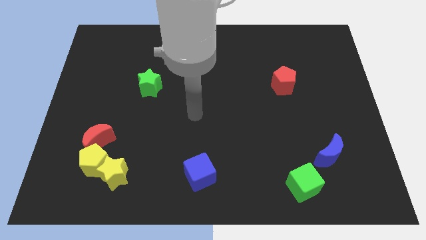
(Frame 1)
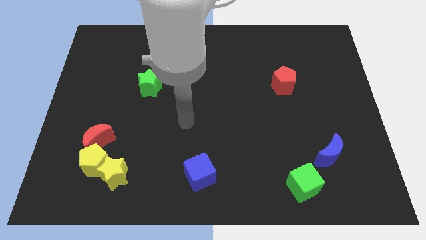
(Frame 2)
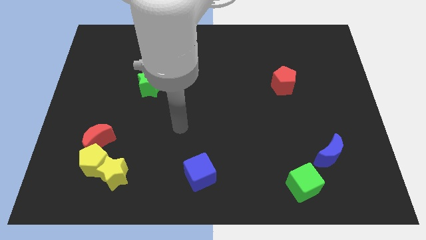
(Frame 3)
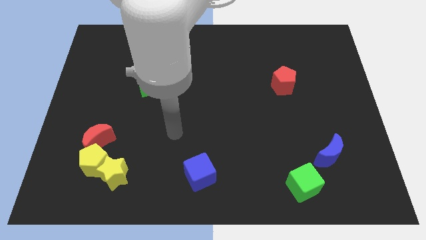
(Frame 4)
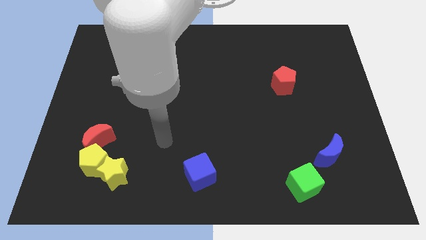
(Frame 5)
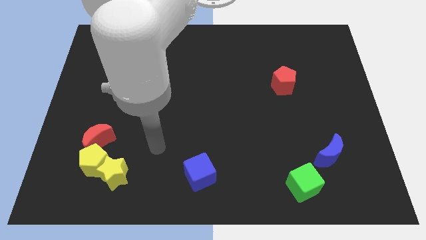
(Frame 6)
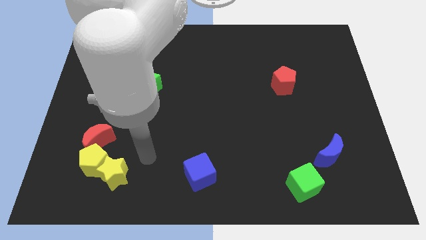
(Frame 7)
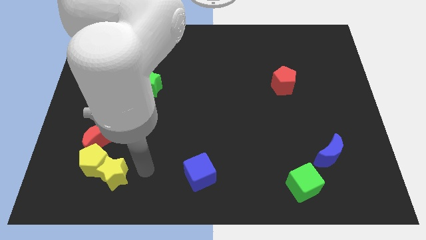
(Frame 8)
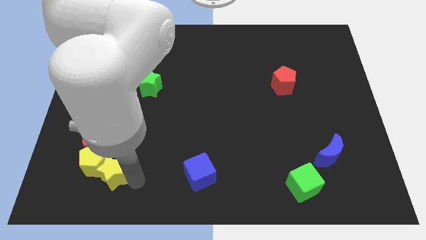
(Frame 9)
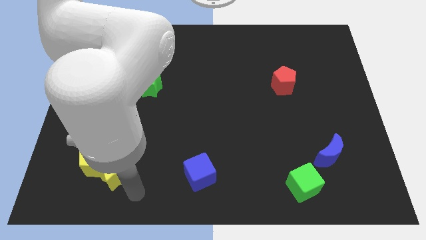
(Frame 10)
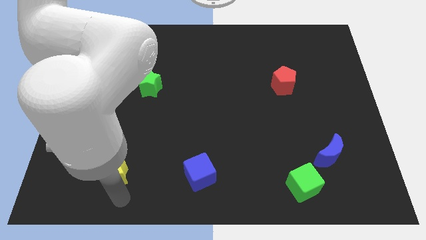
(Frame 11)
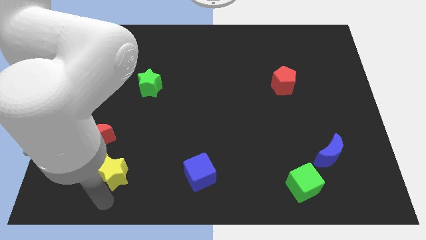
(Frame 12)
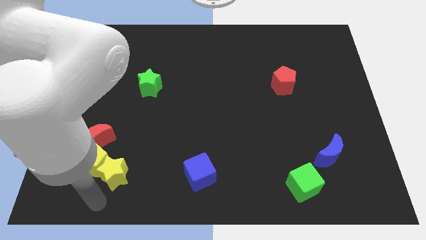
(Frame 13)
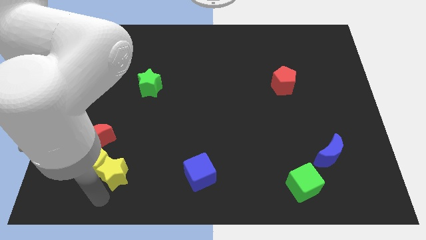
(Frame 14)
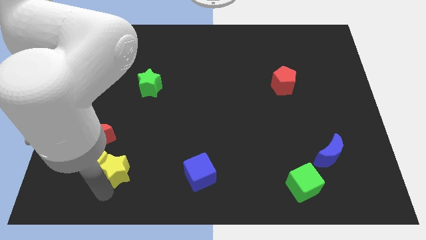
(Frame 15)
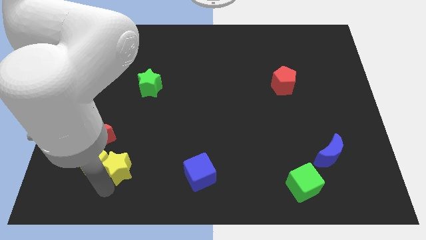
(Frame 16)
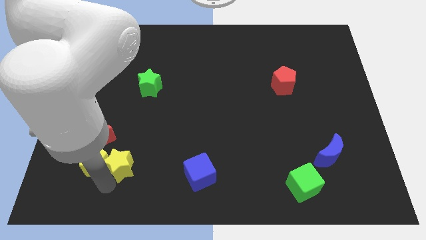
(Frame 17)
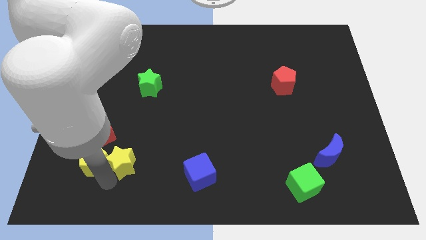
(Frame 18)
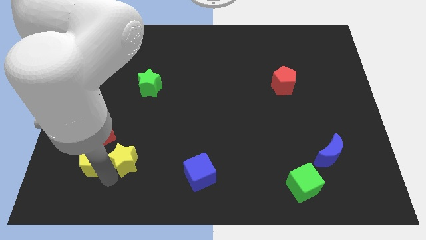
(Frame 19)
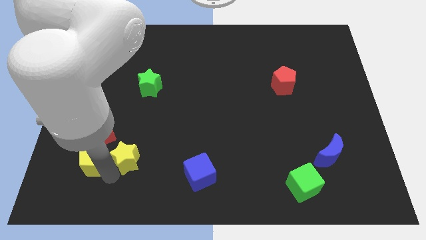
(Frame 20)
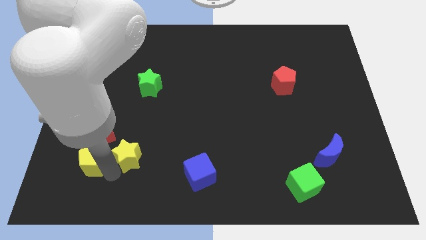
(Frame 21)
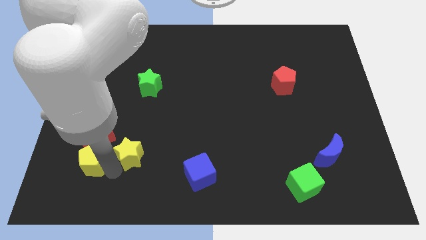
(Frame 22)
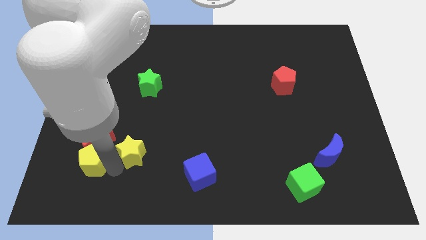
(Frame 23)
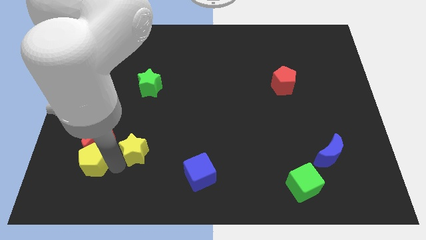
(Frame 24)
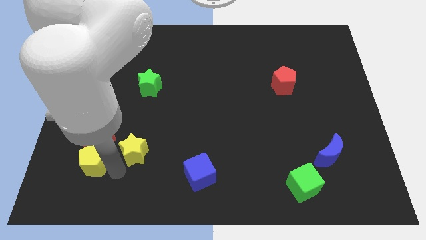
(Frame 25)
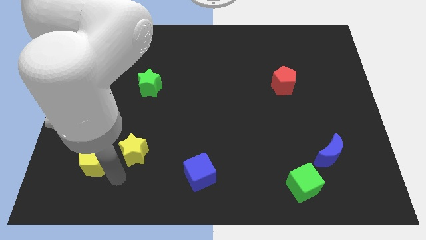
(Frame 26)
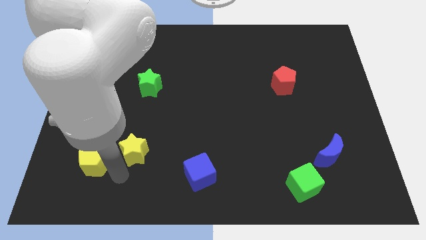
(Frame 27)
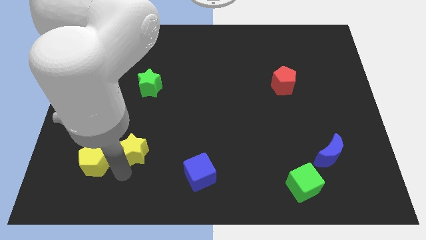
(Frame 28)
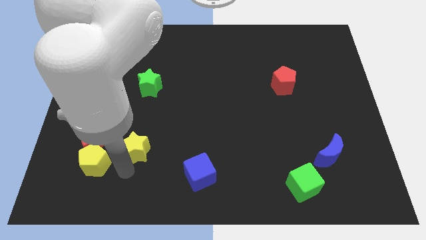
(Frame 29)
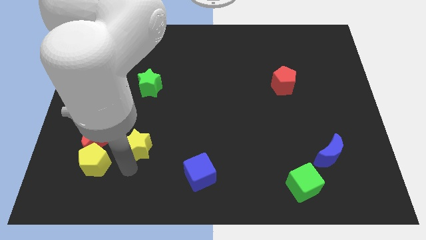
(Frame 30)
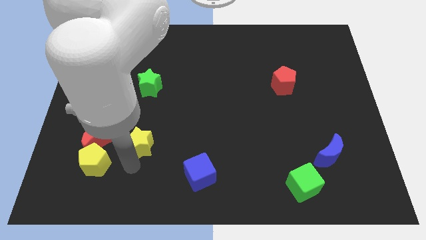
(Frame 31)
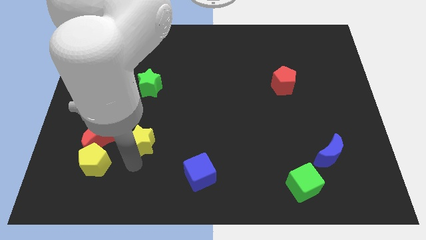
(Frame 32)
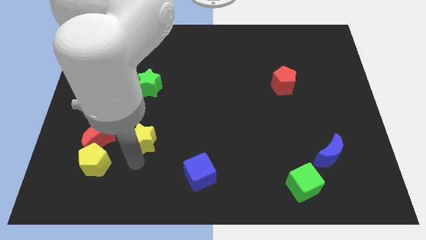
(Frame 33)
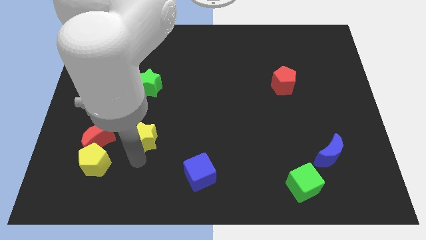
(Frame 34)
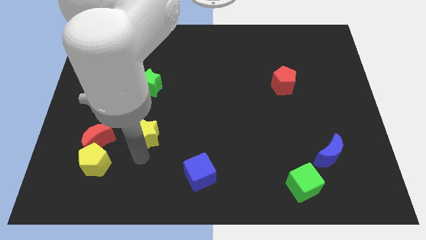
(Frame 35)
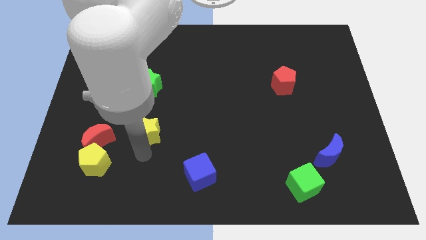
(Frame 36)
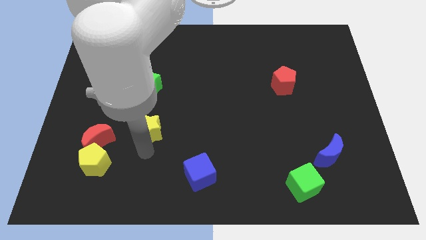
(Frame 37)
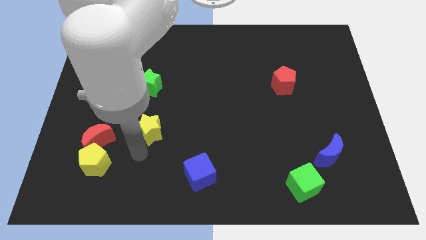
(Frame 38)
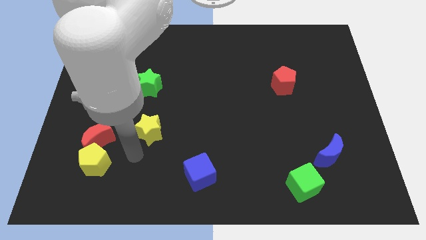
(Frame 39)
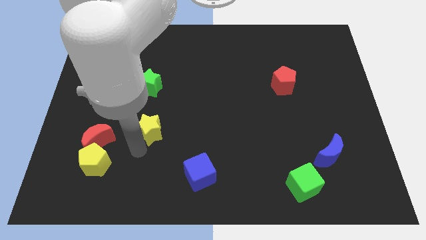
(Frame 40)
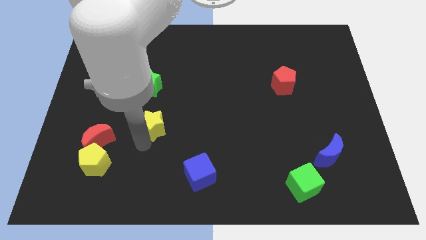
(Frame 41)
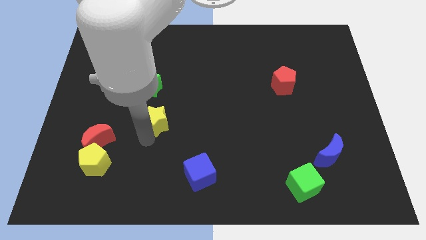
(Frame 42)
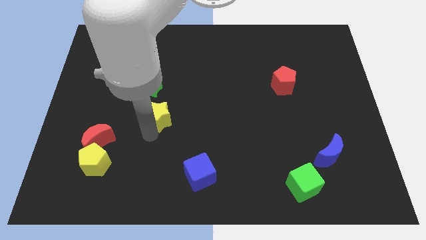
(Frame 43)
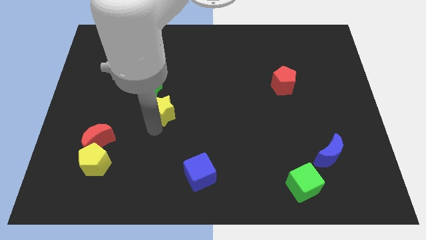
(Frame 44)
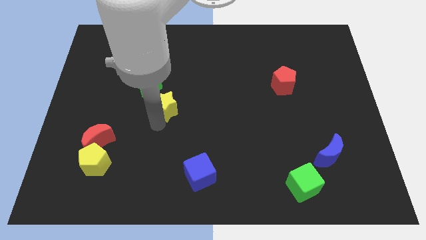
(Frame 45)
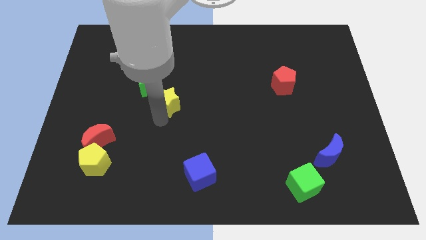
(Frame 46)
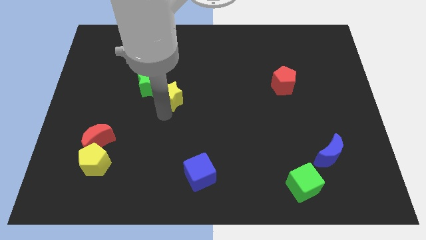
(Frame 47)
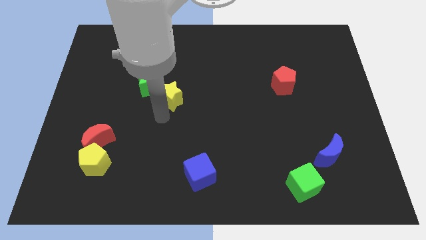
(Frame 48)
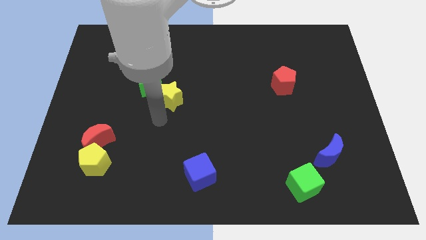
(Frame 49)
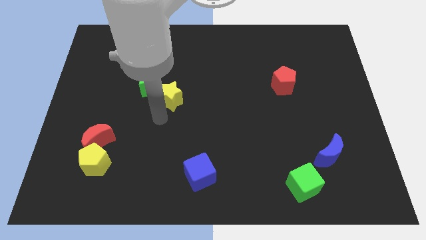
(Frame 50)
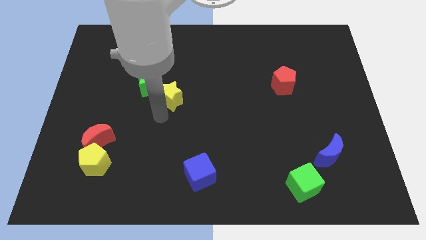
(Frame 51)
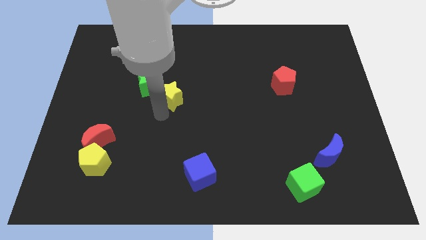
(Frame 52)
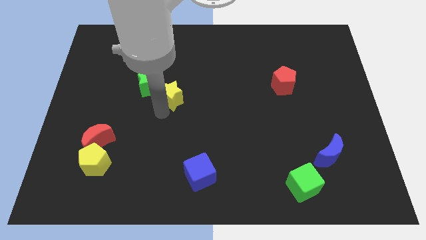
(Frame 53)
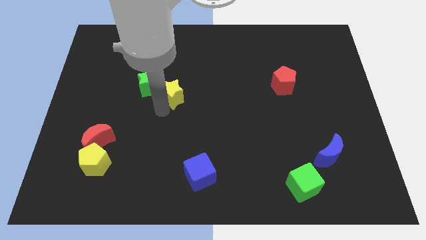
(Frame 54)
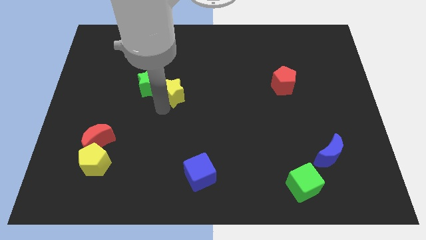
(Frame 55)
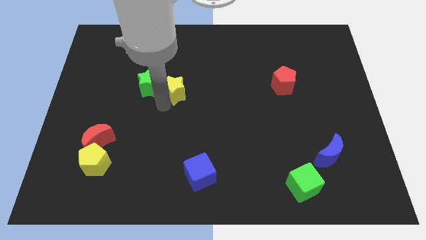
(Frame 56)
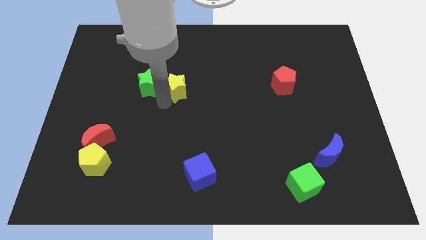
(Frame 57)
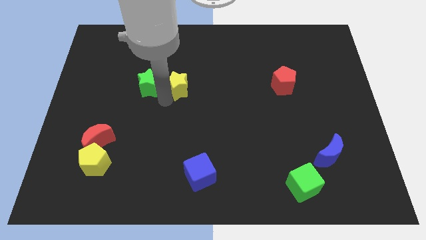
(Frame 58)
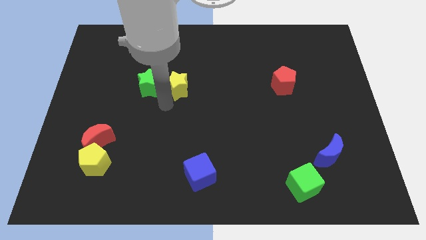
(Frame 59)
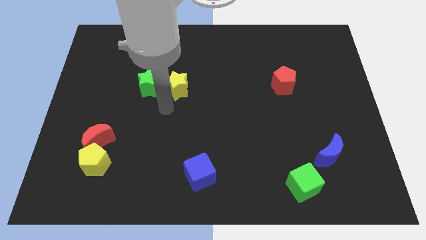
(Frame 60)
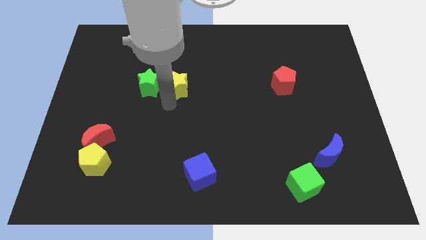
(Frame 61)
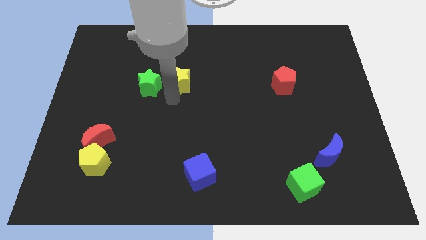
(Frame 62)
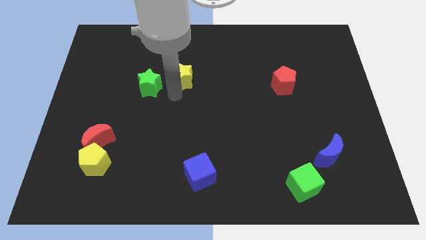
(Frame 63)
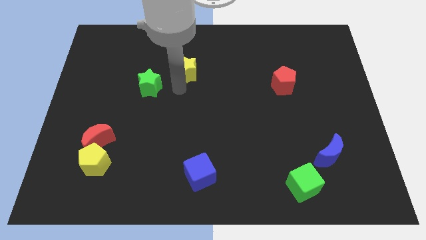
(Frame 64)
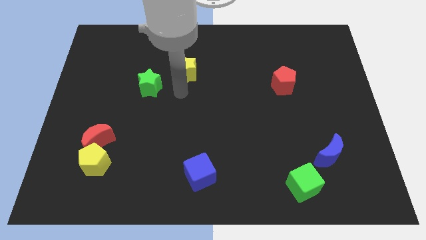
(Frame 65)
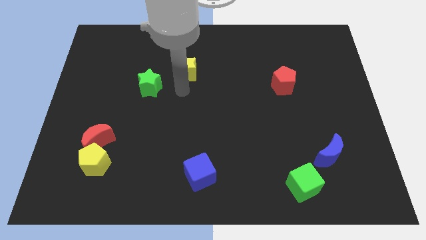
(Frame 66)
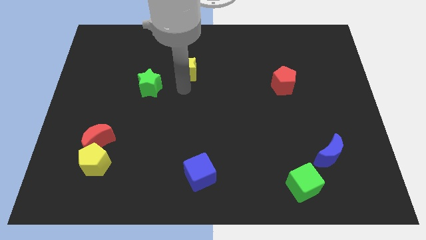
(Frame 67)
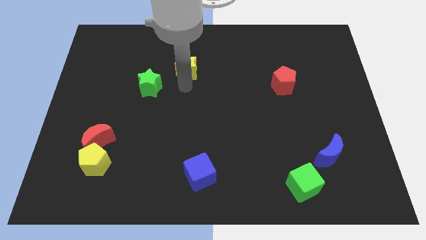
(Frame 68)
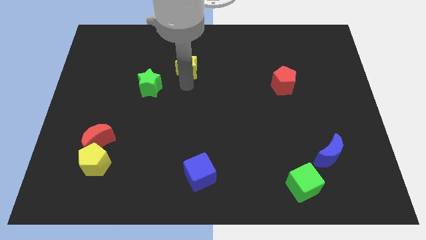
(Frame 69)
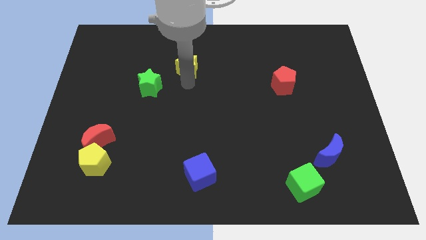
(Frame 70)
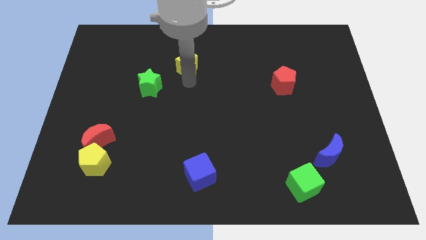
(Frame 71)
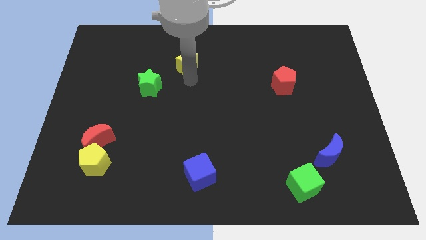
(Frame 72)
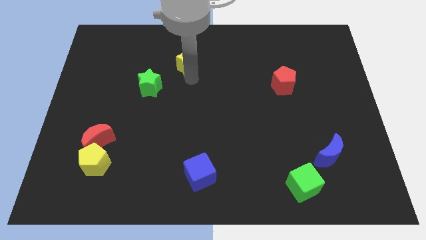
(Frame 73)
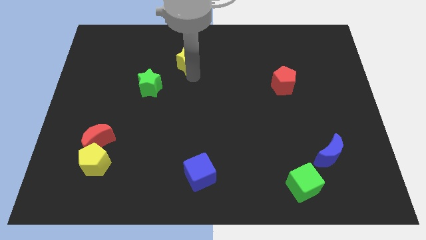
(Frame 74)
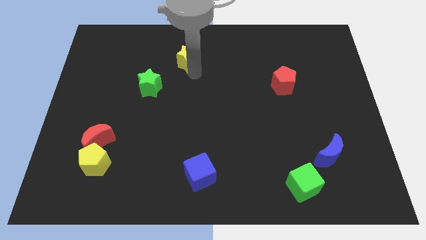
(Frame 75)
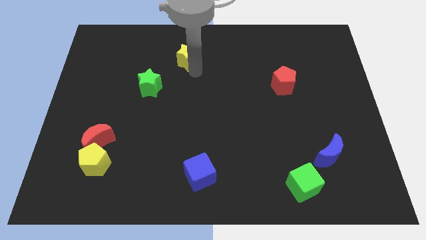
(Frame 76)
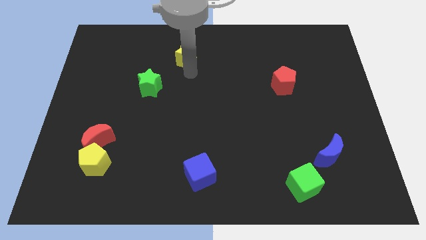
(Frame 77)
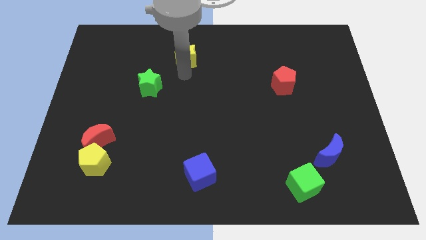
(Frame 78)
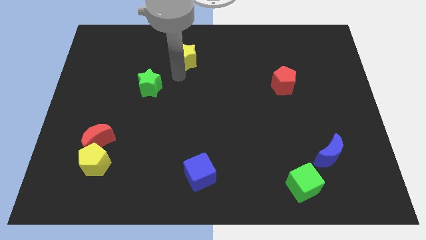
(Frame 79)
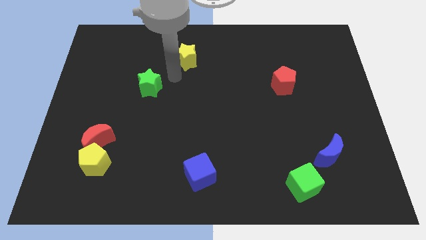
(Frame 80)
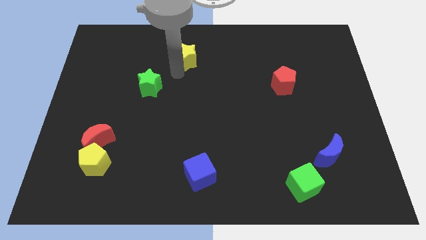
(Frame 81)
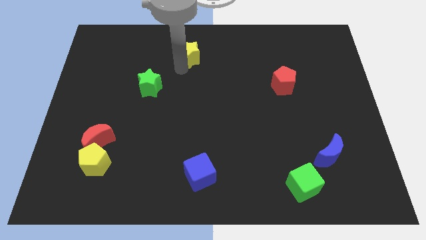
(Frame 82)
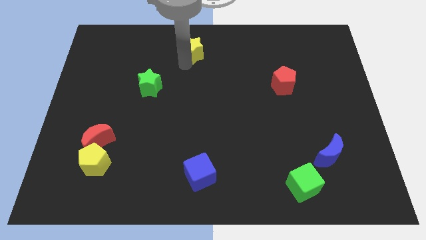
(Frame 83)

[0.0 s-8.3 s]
slide the yellow star to the towards your base
